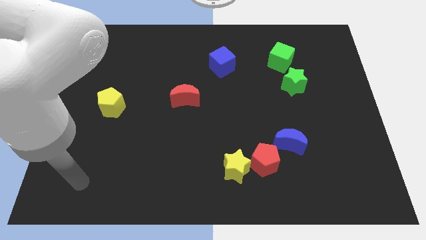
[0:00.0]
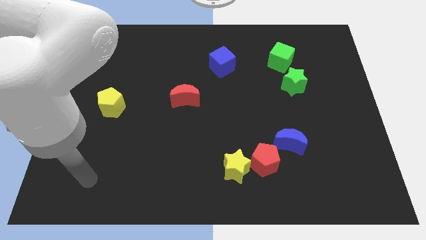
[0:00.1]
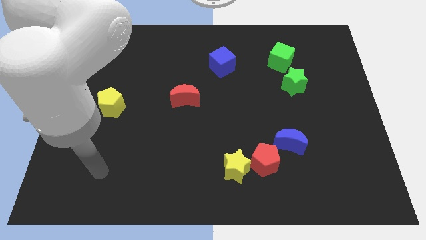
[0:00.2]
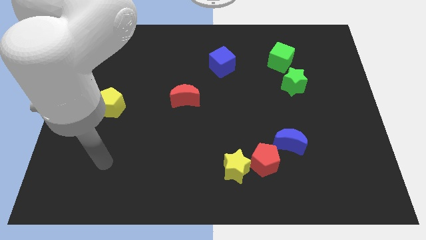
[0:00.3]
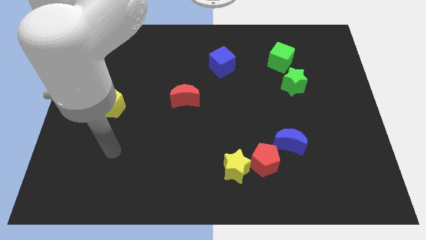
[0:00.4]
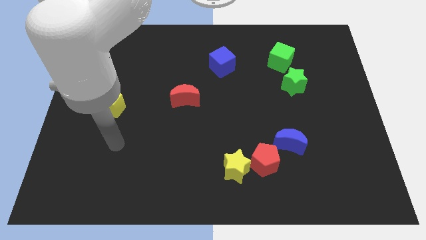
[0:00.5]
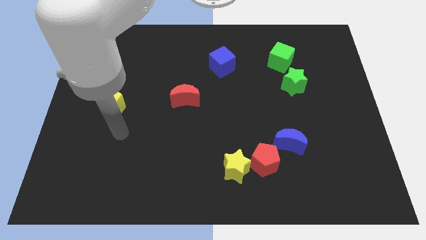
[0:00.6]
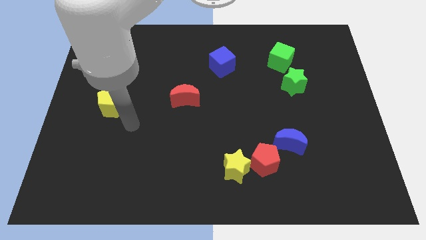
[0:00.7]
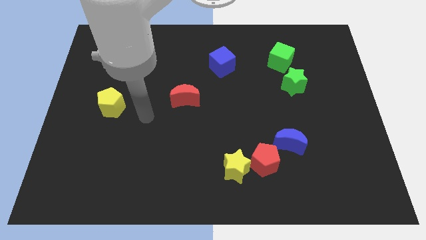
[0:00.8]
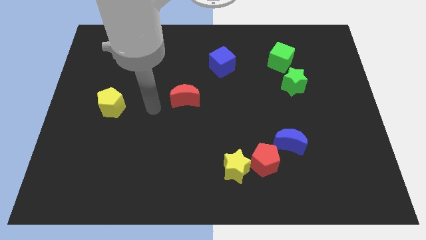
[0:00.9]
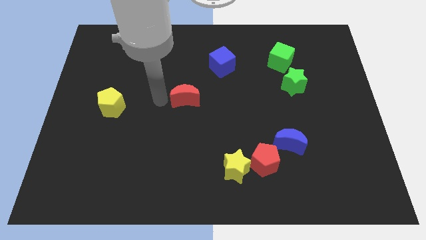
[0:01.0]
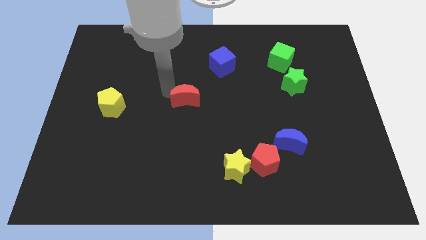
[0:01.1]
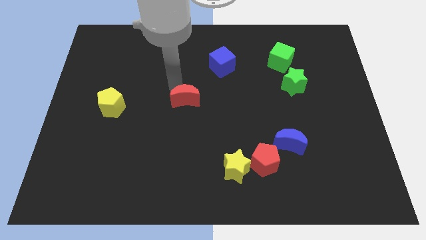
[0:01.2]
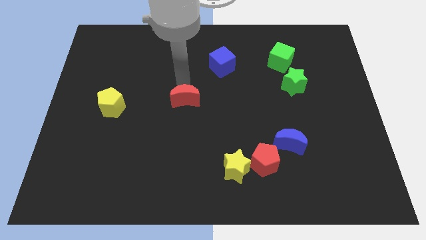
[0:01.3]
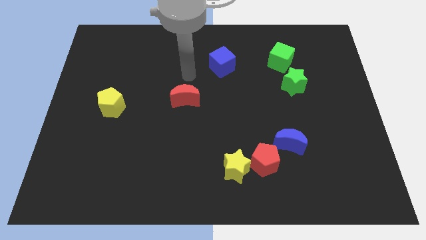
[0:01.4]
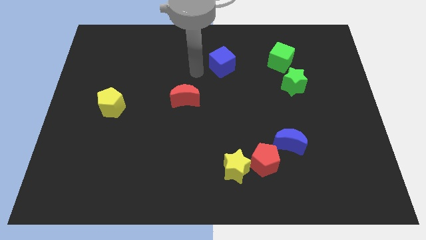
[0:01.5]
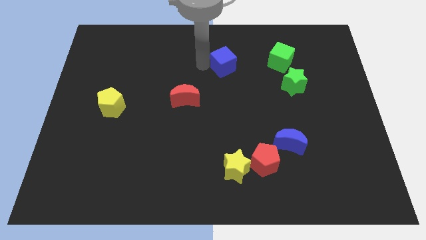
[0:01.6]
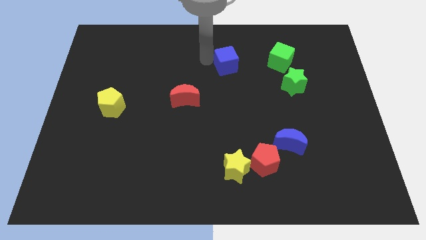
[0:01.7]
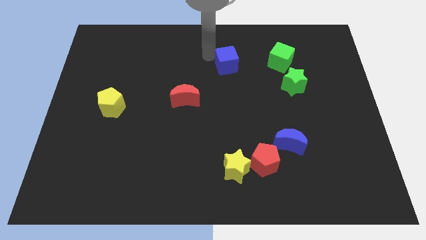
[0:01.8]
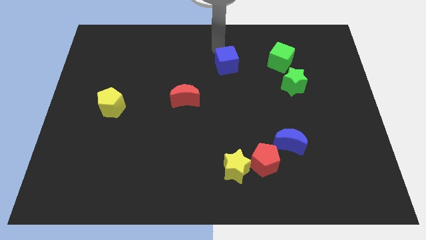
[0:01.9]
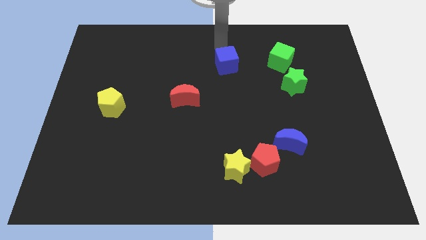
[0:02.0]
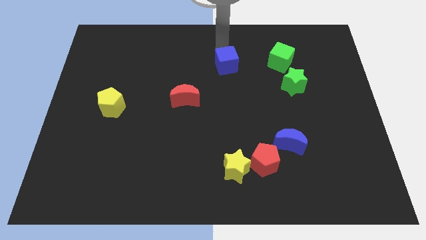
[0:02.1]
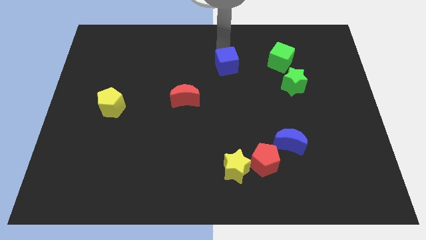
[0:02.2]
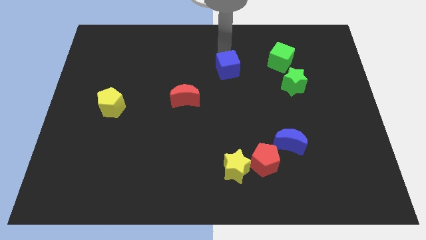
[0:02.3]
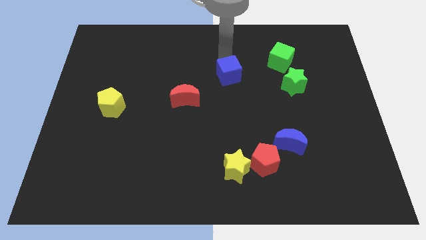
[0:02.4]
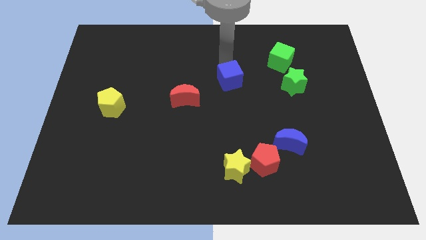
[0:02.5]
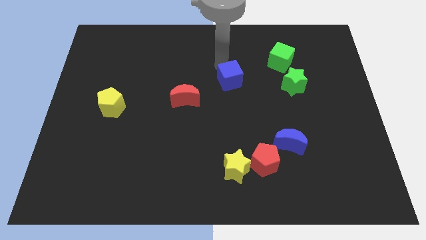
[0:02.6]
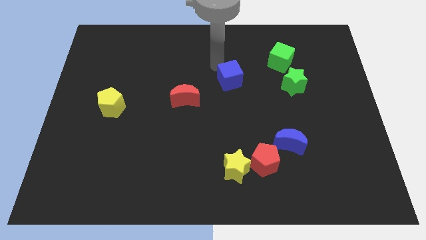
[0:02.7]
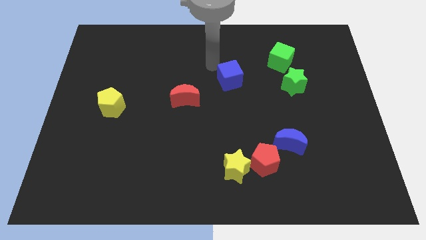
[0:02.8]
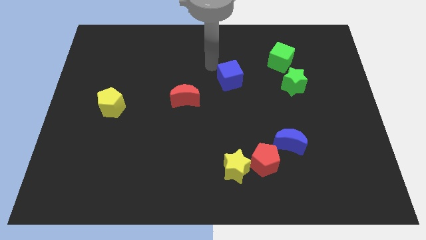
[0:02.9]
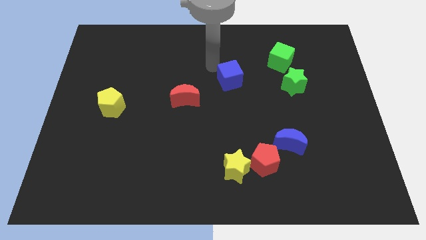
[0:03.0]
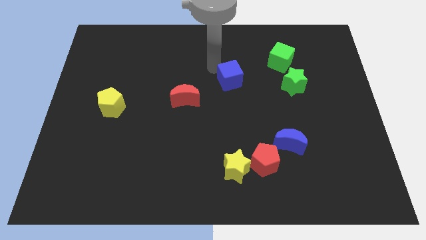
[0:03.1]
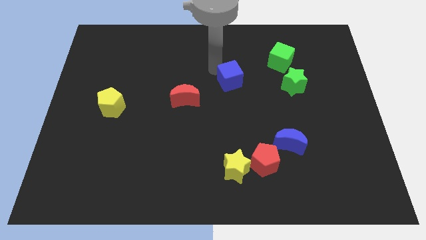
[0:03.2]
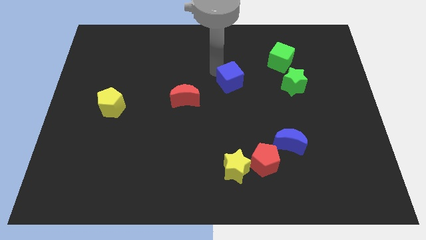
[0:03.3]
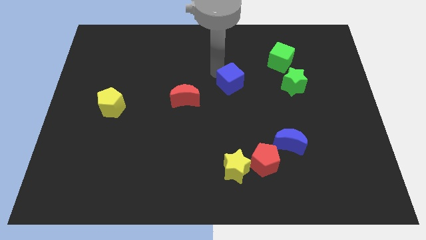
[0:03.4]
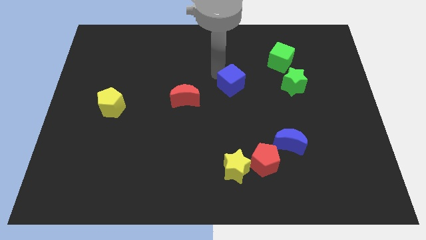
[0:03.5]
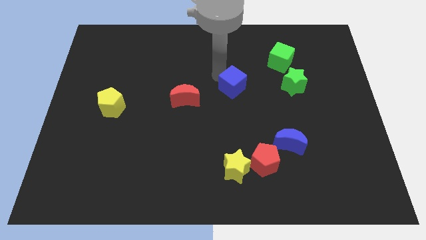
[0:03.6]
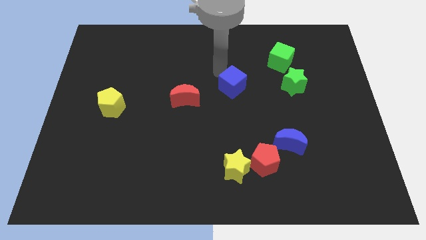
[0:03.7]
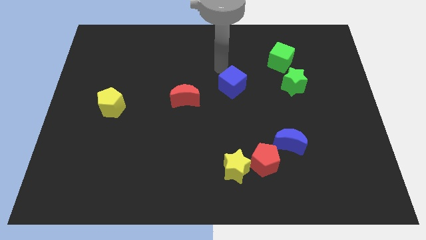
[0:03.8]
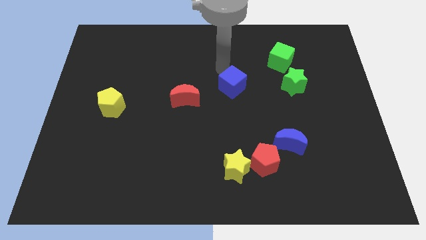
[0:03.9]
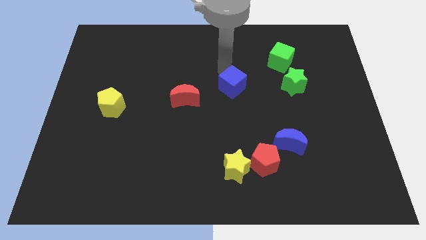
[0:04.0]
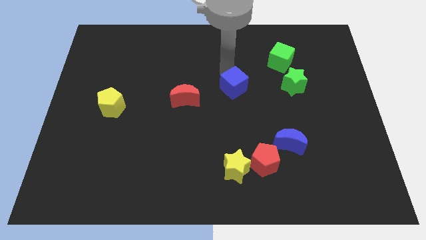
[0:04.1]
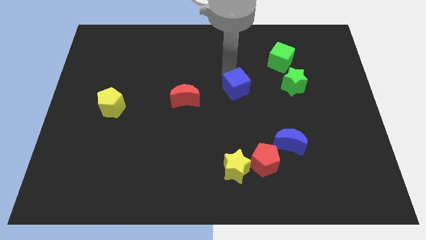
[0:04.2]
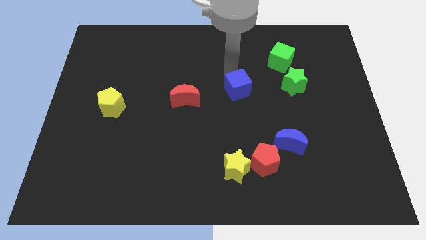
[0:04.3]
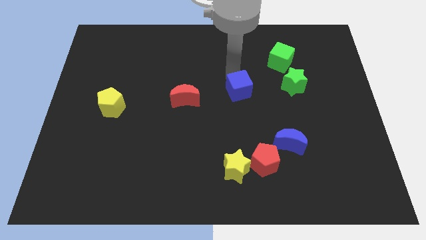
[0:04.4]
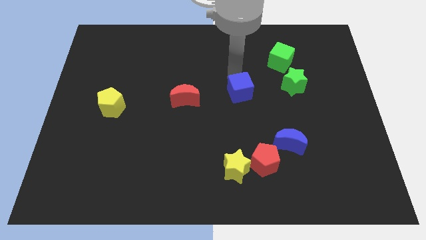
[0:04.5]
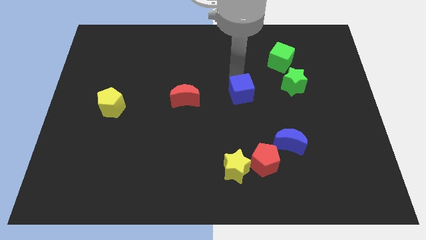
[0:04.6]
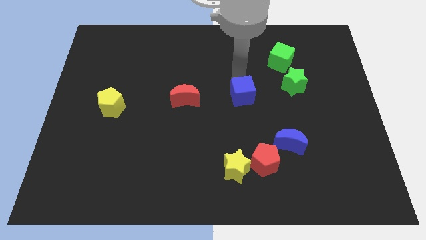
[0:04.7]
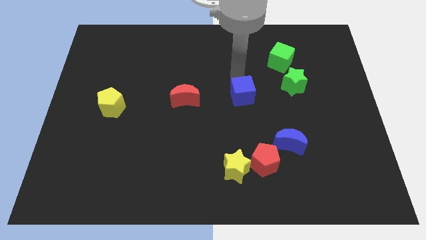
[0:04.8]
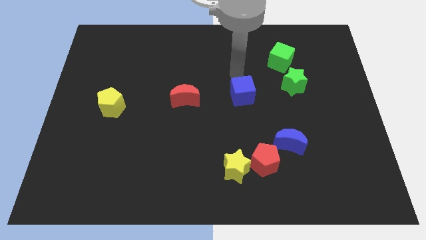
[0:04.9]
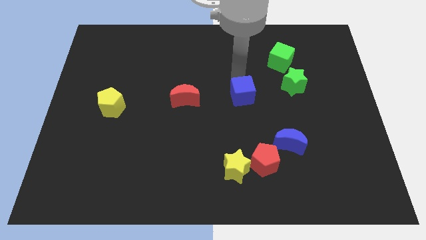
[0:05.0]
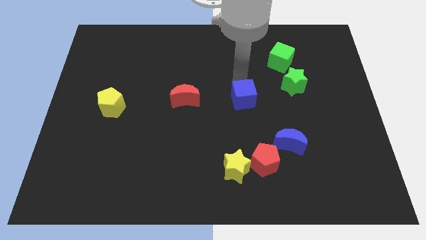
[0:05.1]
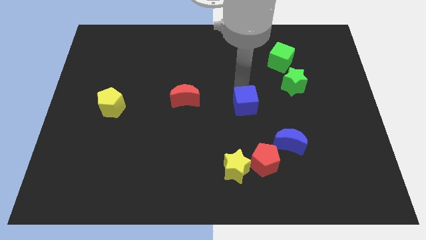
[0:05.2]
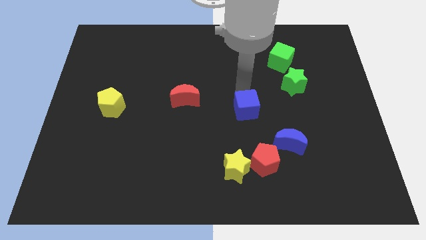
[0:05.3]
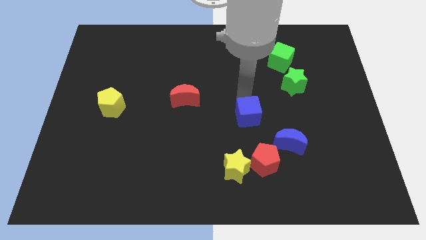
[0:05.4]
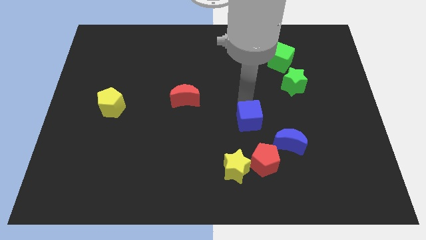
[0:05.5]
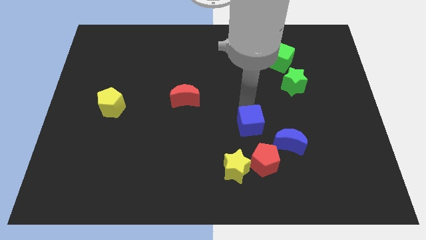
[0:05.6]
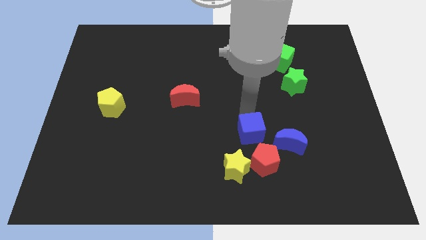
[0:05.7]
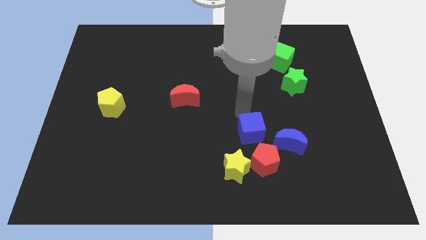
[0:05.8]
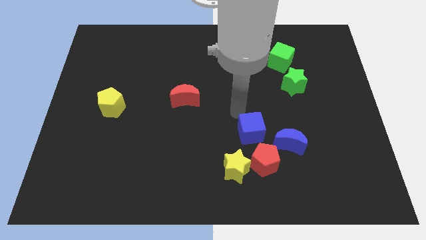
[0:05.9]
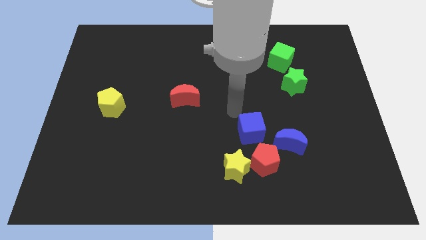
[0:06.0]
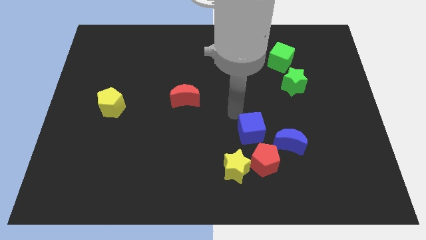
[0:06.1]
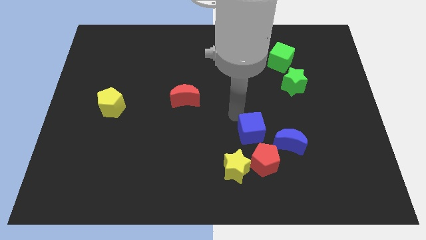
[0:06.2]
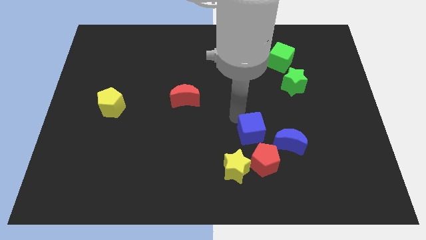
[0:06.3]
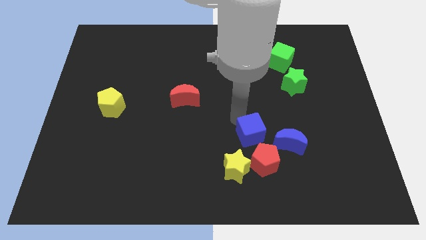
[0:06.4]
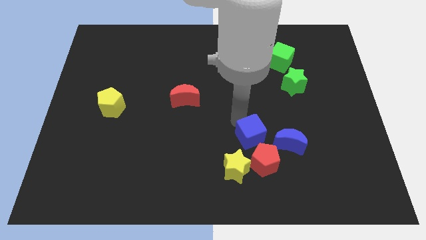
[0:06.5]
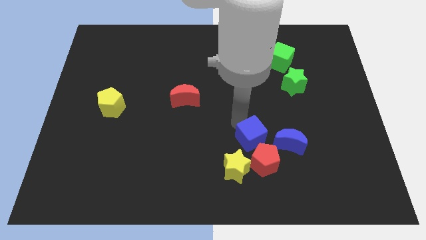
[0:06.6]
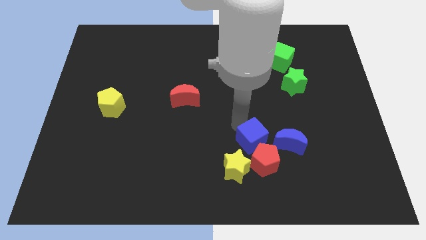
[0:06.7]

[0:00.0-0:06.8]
push the blue cube close to the red pentagon
